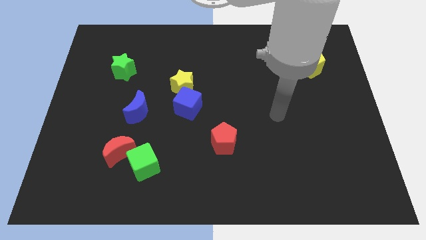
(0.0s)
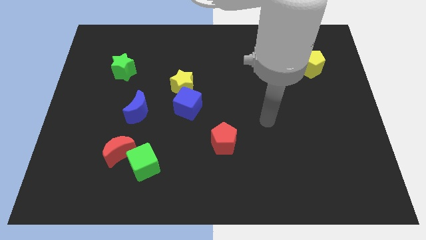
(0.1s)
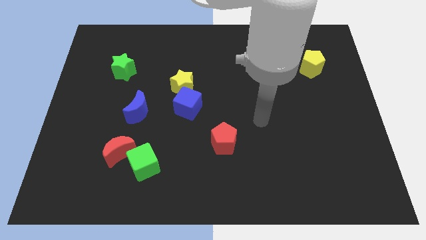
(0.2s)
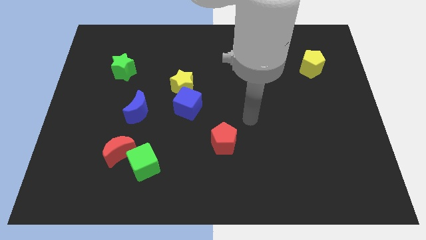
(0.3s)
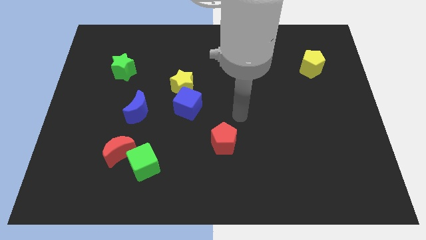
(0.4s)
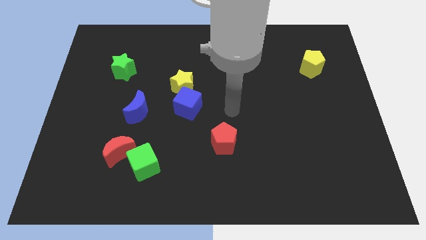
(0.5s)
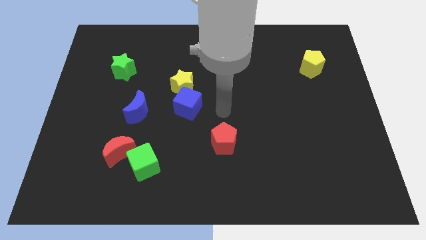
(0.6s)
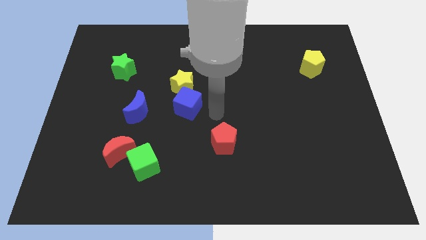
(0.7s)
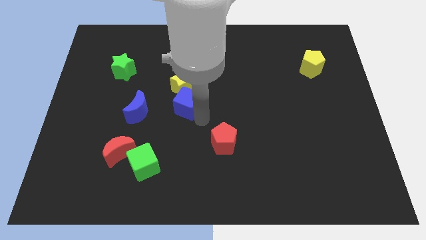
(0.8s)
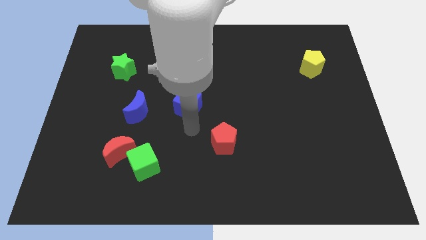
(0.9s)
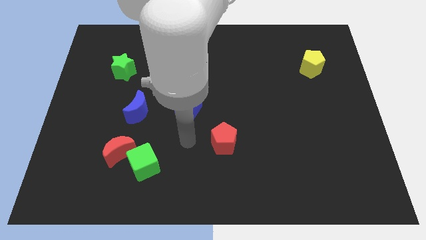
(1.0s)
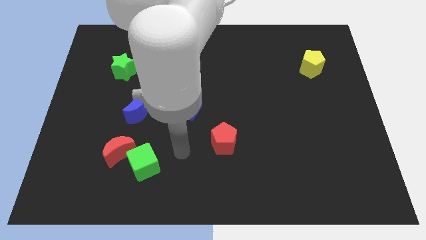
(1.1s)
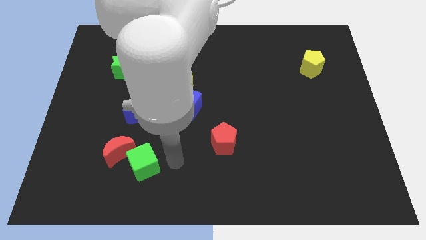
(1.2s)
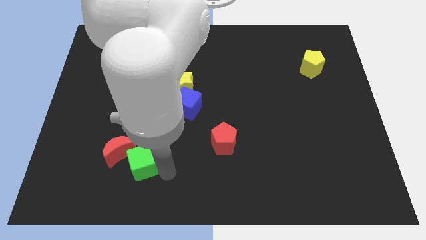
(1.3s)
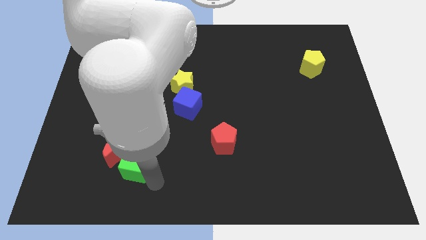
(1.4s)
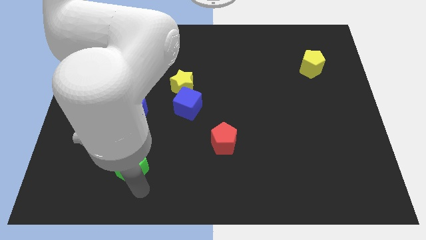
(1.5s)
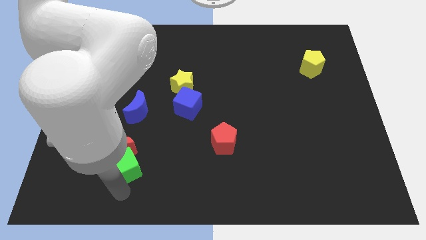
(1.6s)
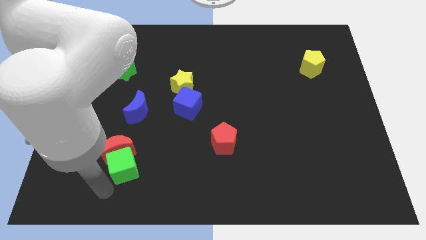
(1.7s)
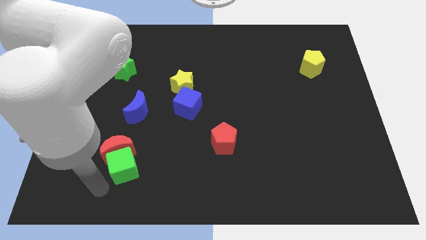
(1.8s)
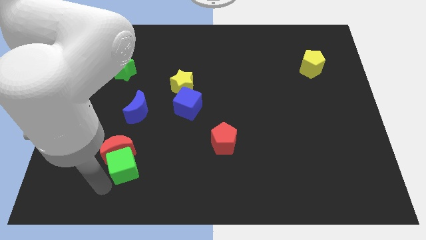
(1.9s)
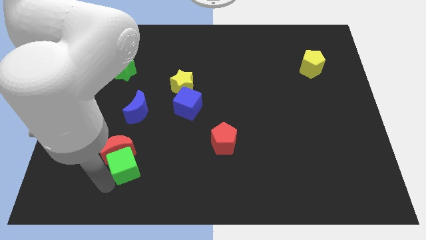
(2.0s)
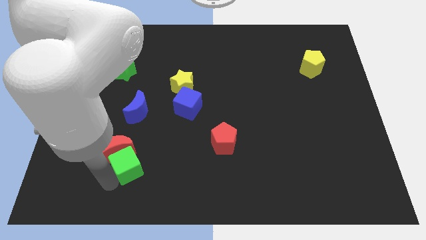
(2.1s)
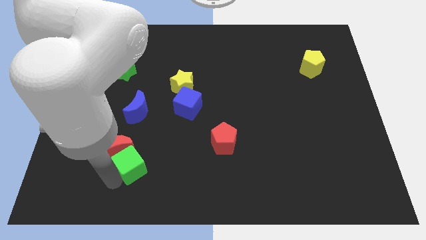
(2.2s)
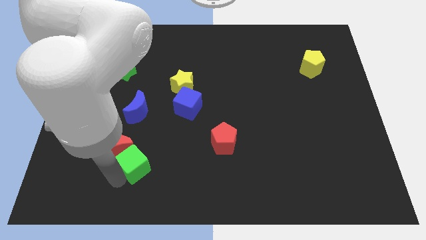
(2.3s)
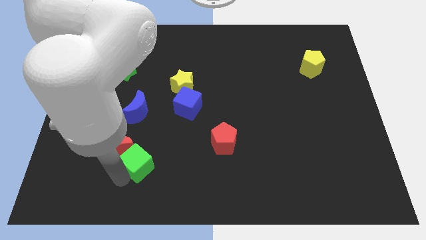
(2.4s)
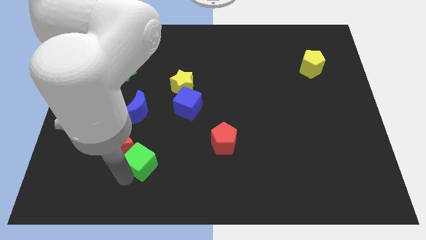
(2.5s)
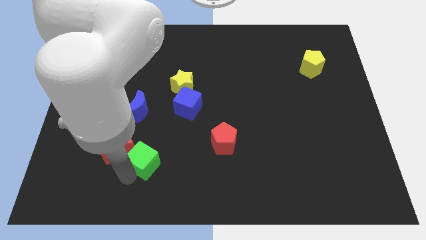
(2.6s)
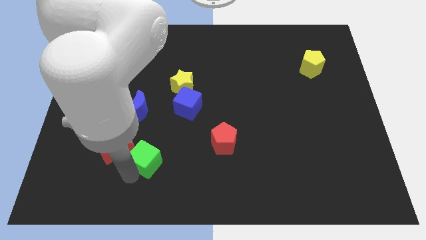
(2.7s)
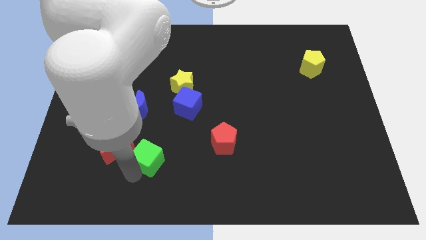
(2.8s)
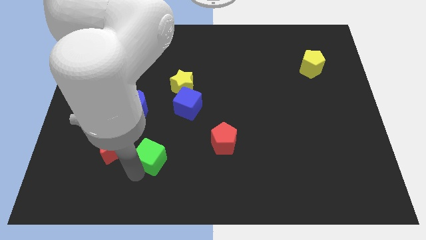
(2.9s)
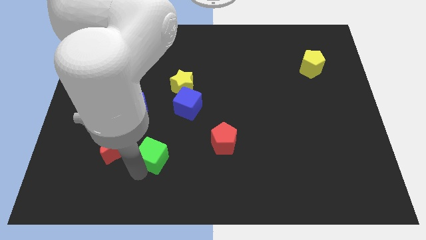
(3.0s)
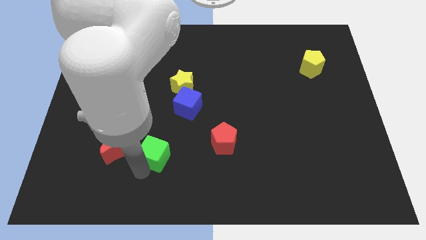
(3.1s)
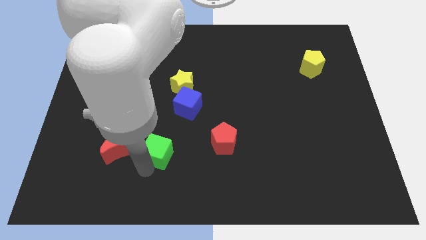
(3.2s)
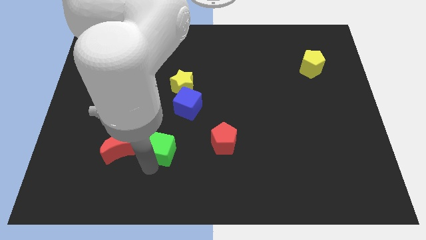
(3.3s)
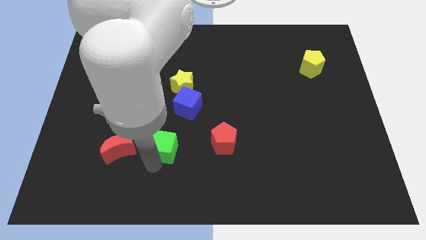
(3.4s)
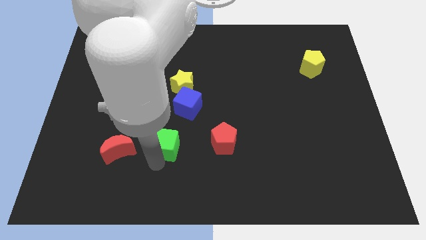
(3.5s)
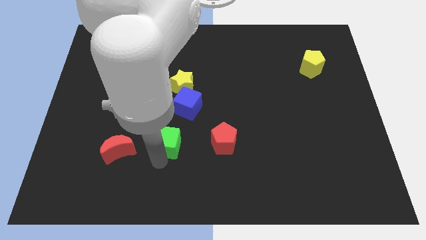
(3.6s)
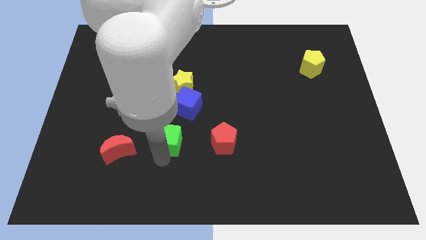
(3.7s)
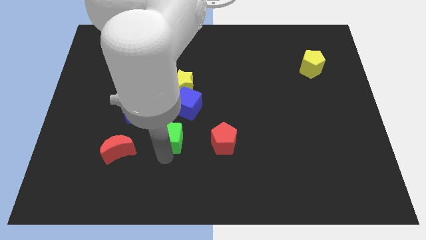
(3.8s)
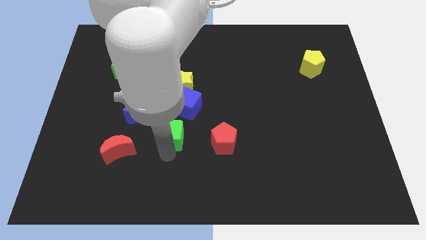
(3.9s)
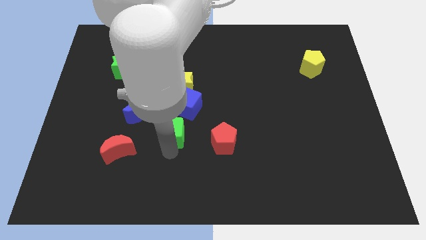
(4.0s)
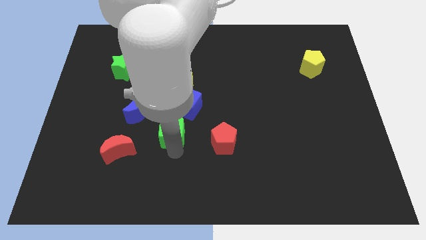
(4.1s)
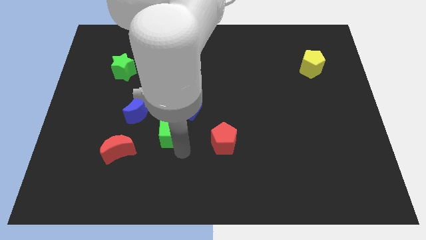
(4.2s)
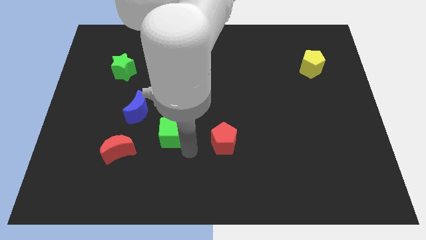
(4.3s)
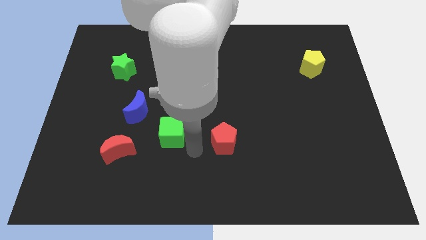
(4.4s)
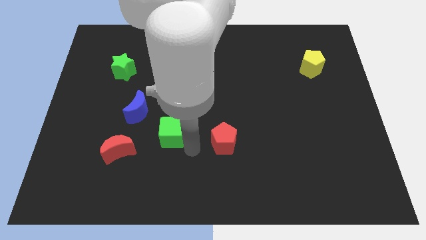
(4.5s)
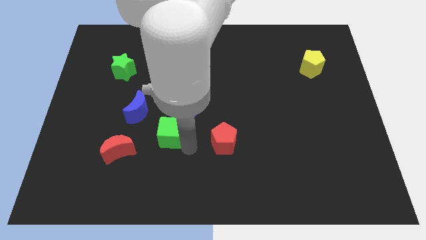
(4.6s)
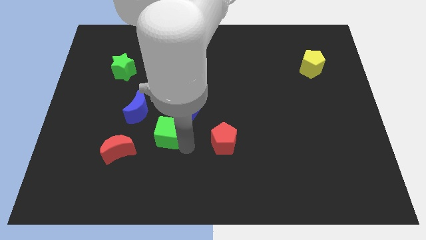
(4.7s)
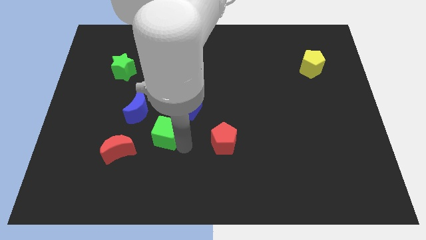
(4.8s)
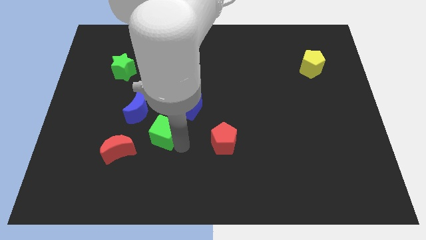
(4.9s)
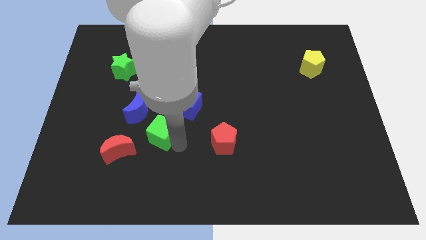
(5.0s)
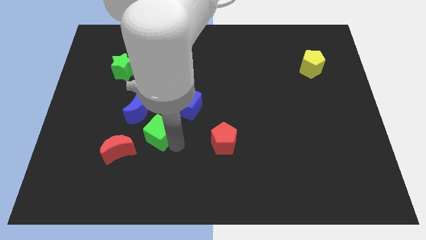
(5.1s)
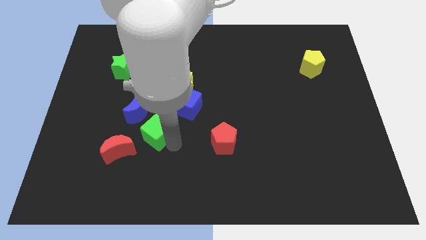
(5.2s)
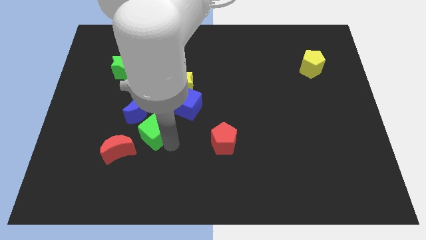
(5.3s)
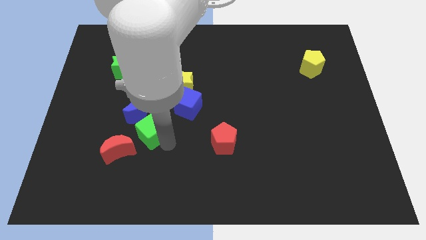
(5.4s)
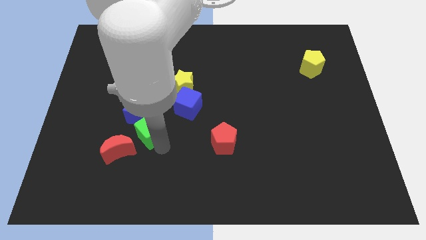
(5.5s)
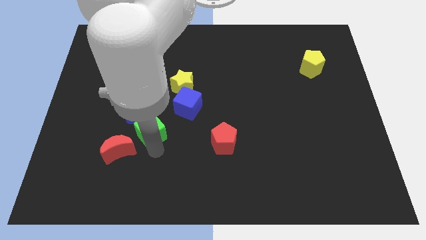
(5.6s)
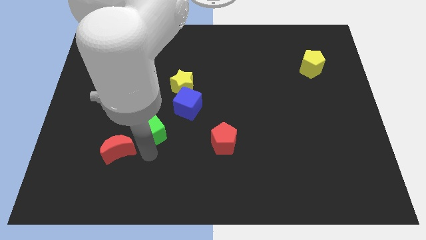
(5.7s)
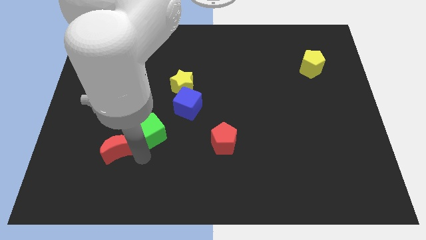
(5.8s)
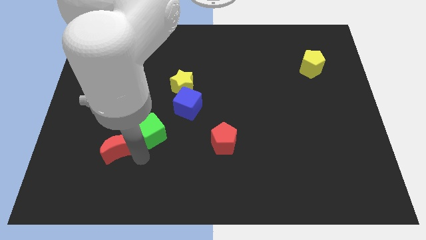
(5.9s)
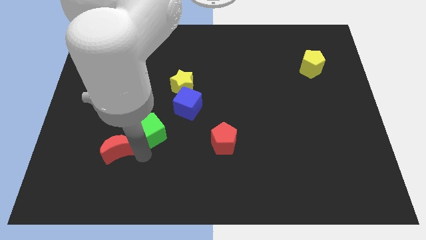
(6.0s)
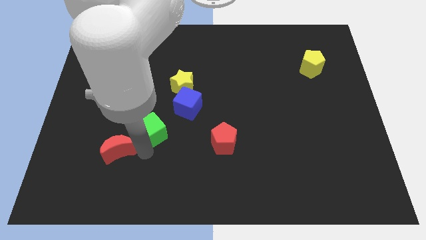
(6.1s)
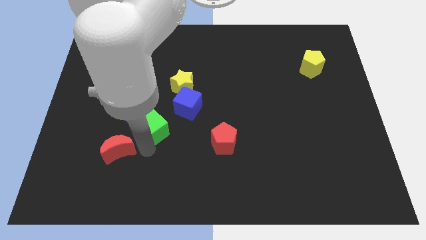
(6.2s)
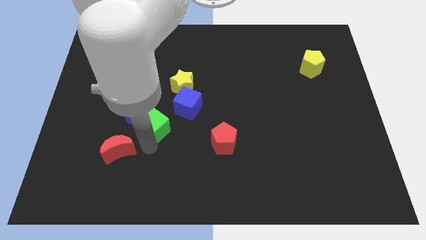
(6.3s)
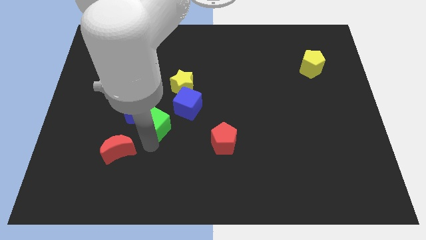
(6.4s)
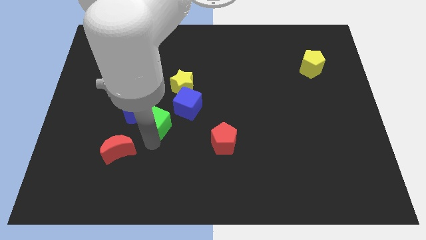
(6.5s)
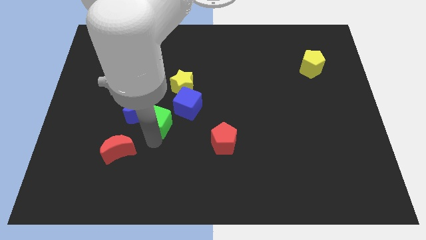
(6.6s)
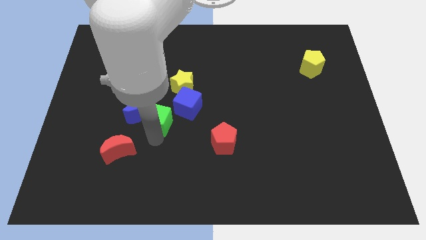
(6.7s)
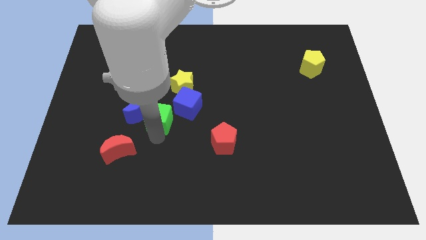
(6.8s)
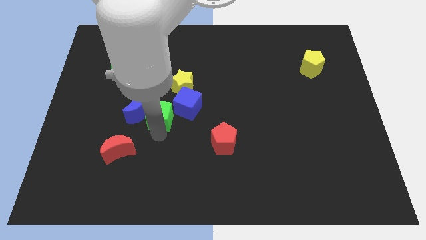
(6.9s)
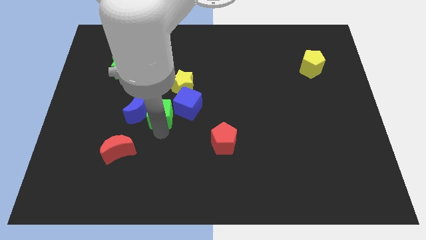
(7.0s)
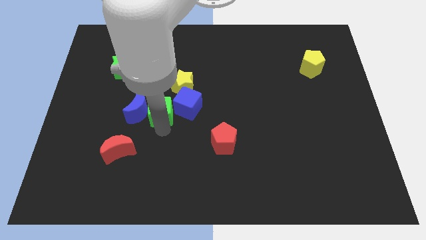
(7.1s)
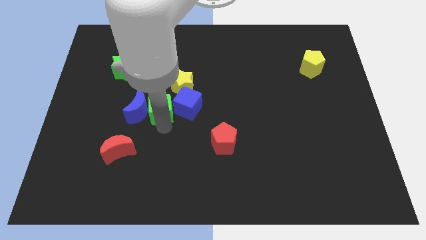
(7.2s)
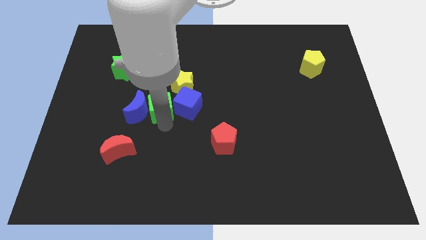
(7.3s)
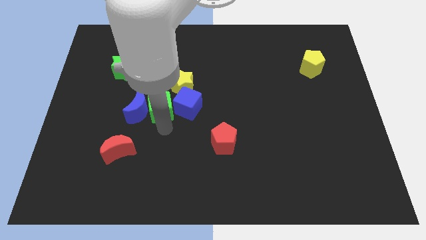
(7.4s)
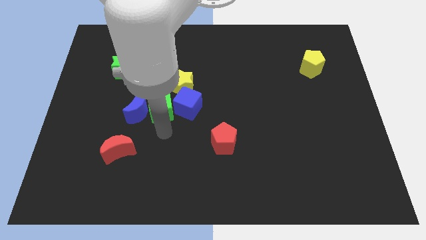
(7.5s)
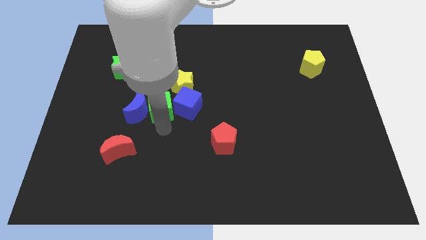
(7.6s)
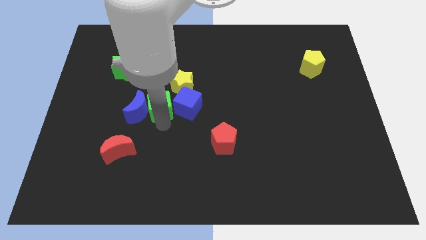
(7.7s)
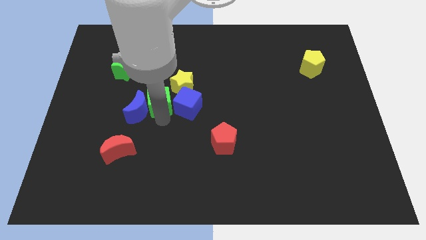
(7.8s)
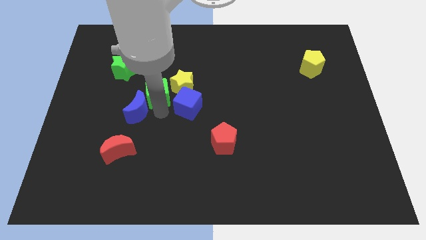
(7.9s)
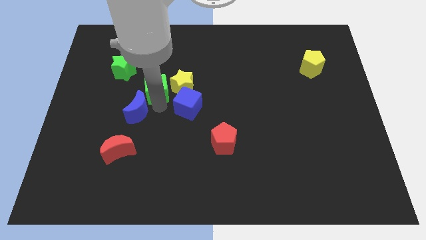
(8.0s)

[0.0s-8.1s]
push the green cube up
